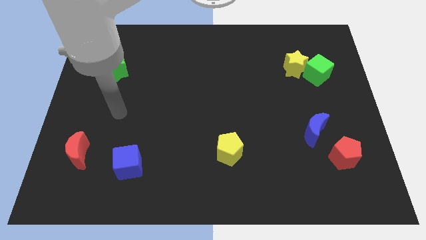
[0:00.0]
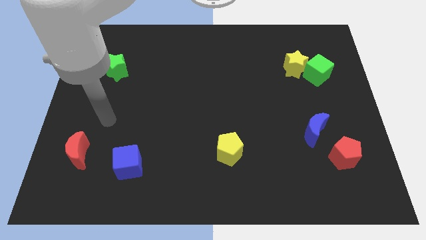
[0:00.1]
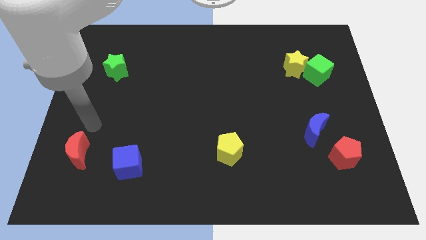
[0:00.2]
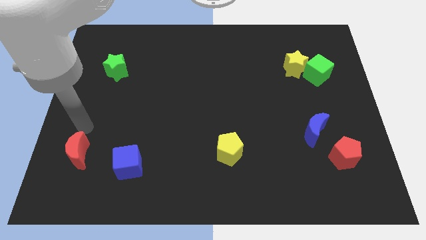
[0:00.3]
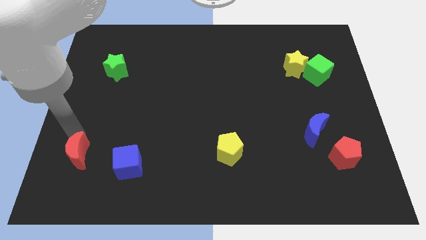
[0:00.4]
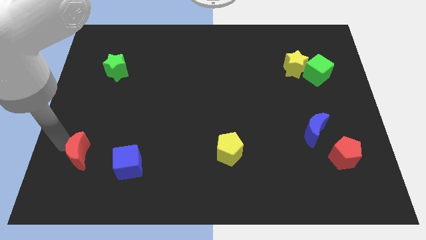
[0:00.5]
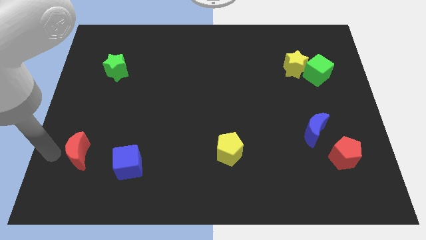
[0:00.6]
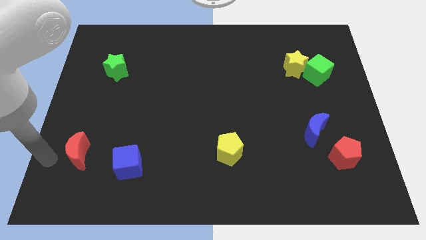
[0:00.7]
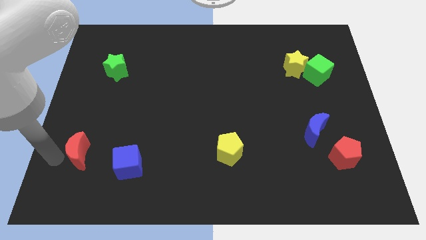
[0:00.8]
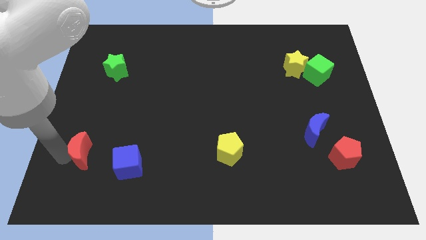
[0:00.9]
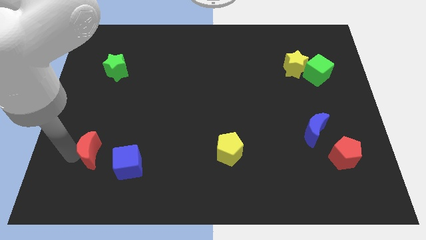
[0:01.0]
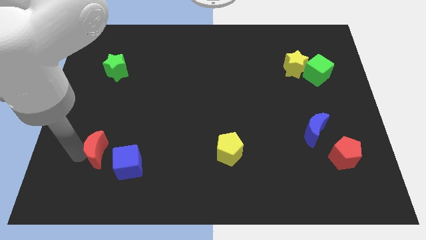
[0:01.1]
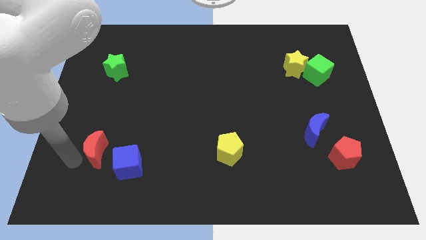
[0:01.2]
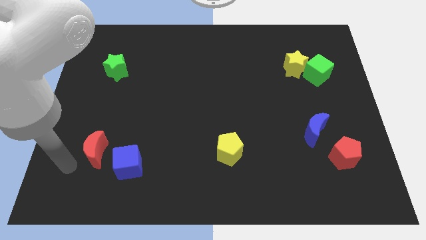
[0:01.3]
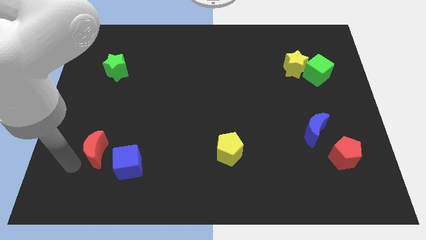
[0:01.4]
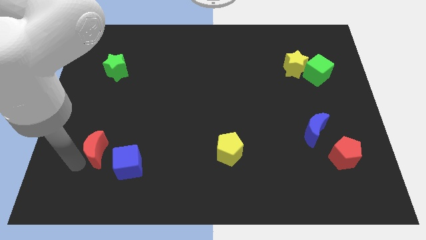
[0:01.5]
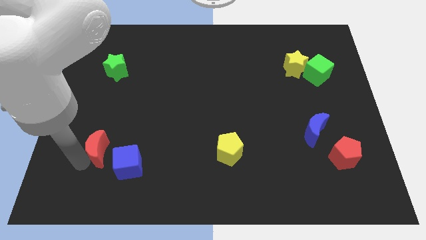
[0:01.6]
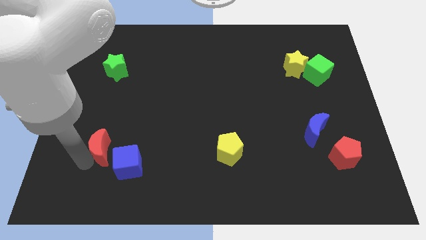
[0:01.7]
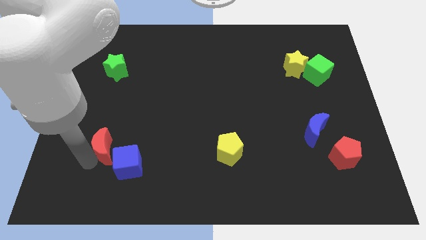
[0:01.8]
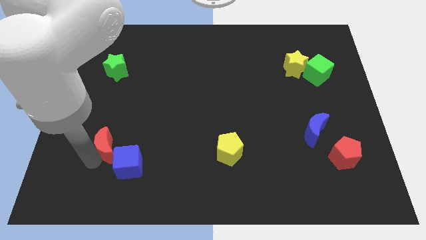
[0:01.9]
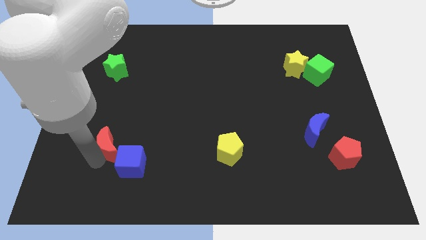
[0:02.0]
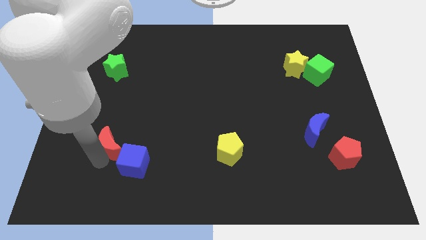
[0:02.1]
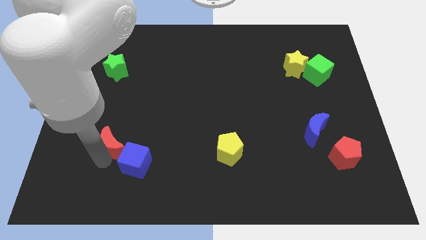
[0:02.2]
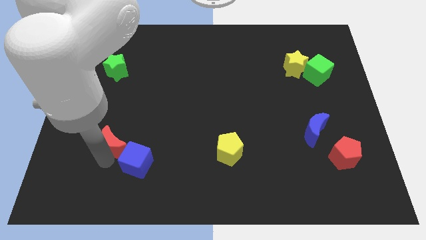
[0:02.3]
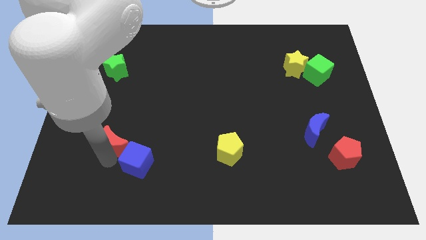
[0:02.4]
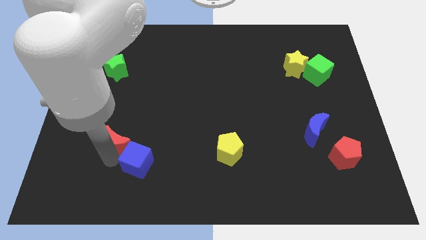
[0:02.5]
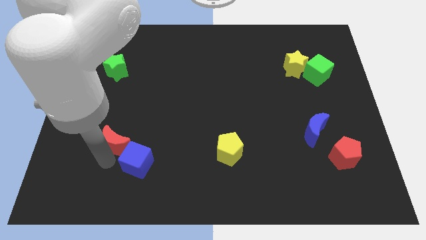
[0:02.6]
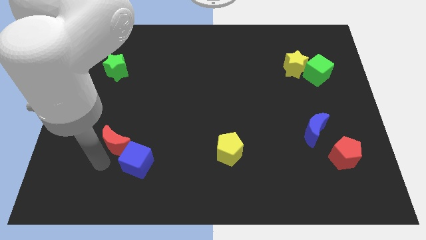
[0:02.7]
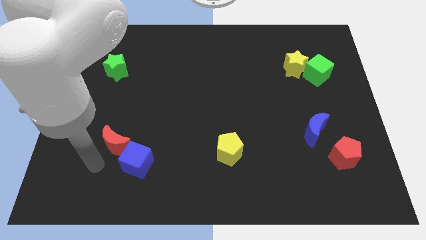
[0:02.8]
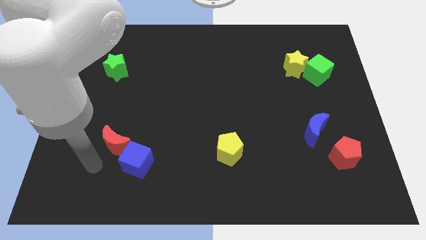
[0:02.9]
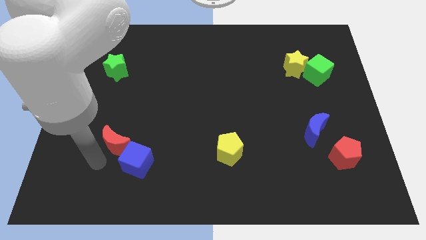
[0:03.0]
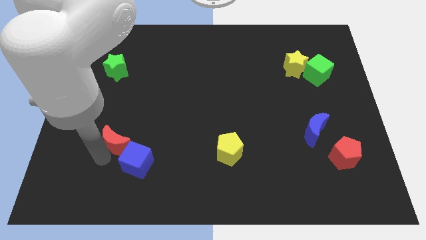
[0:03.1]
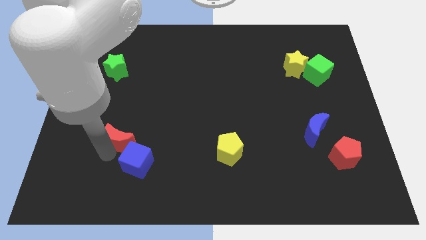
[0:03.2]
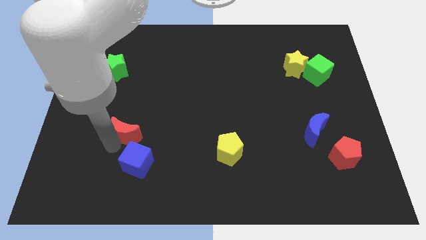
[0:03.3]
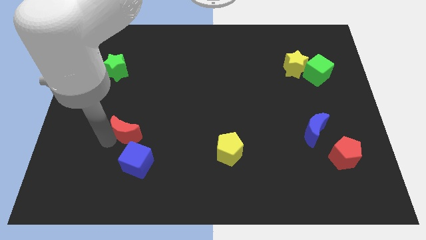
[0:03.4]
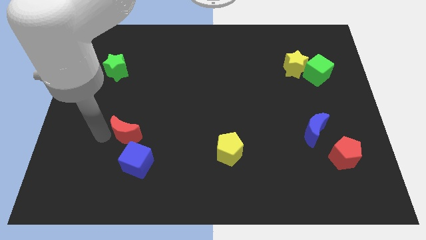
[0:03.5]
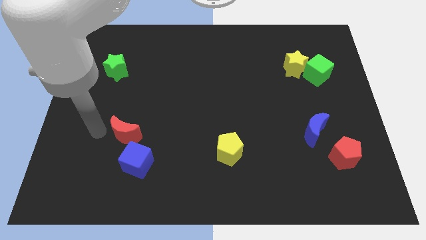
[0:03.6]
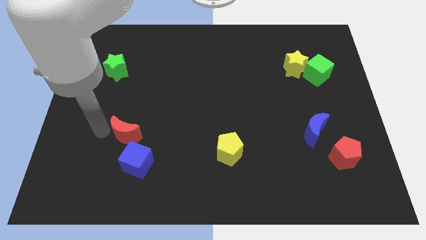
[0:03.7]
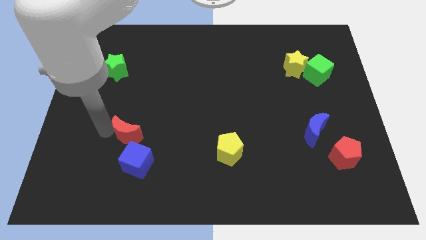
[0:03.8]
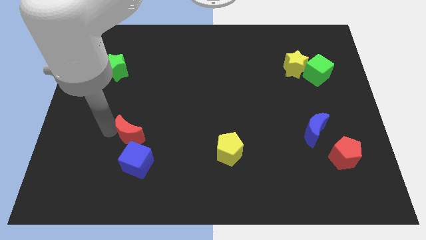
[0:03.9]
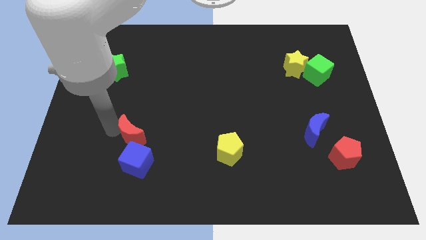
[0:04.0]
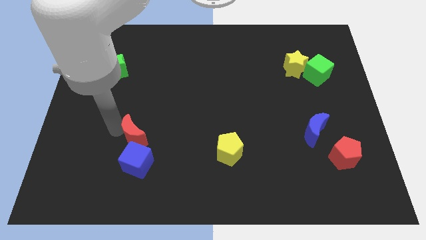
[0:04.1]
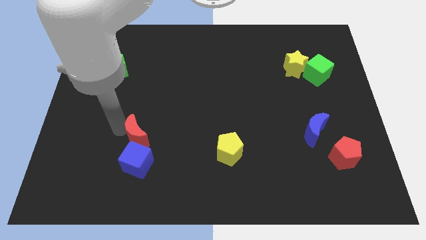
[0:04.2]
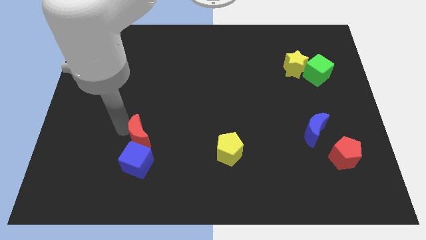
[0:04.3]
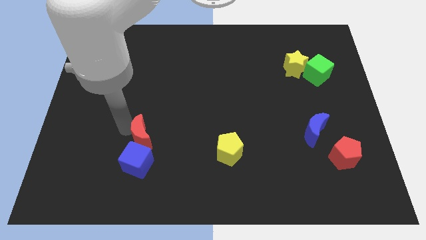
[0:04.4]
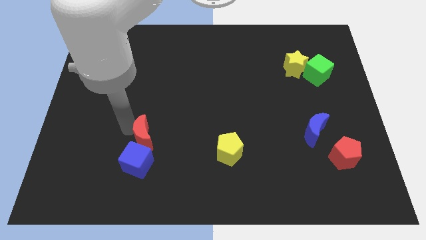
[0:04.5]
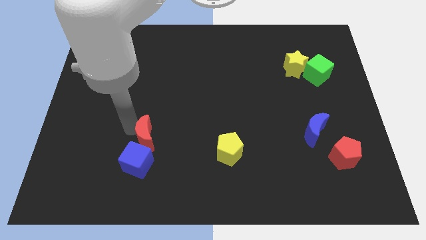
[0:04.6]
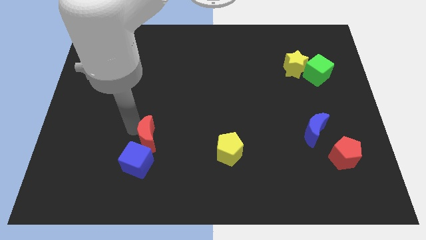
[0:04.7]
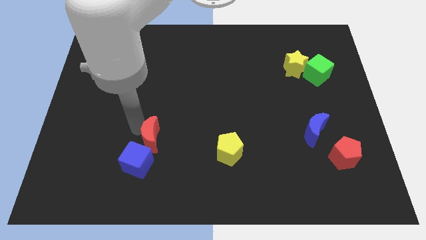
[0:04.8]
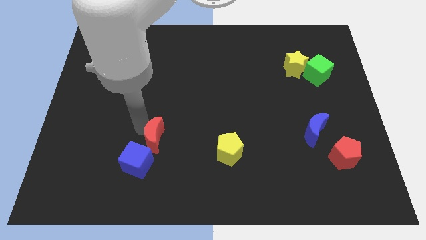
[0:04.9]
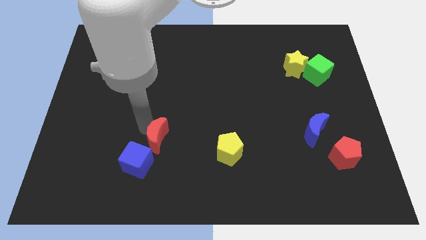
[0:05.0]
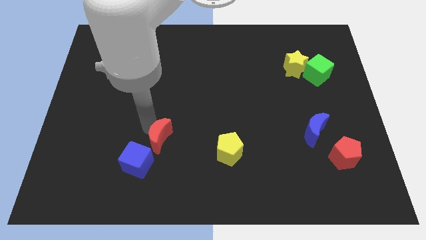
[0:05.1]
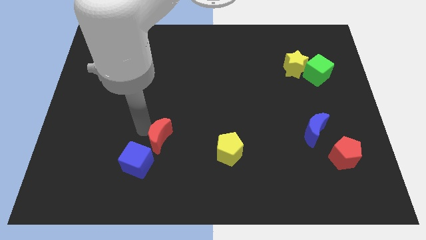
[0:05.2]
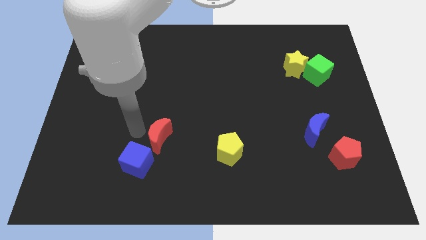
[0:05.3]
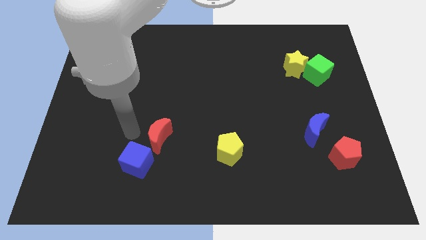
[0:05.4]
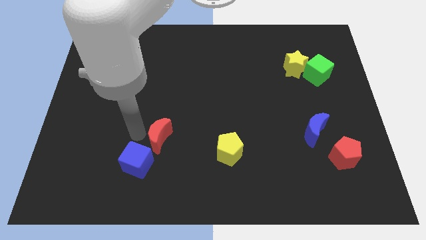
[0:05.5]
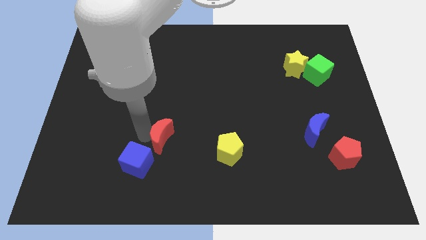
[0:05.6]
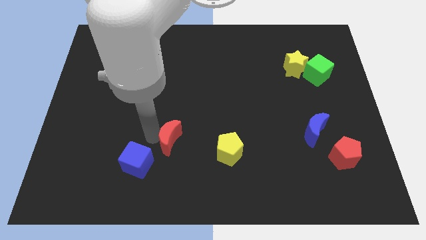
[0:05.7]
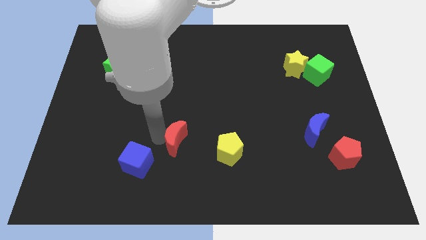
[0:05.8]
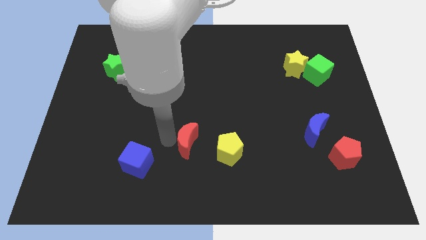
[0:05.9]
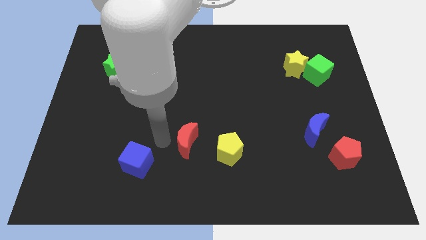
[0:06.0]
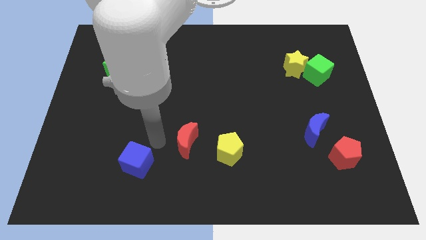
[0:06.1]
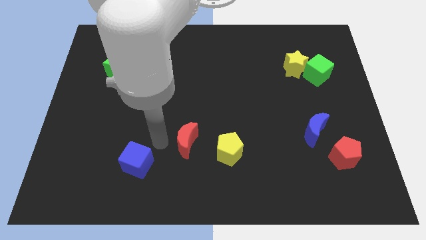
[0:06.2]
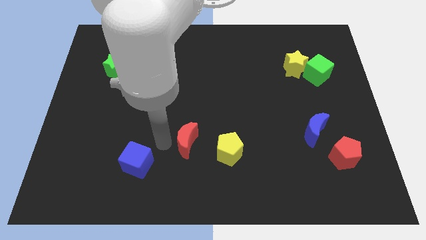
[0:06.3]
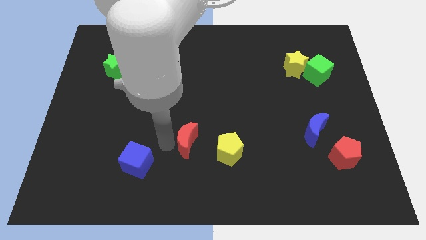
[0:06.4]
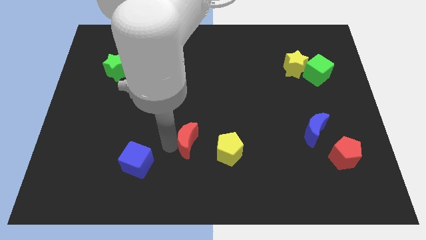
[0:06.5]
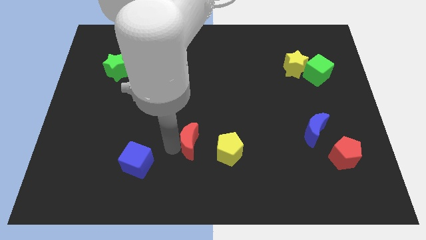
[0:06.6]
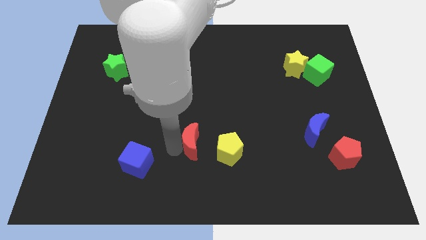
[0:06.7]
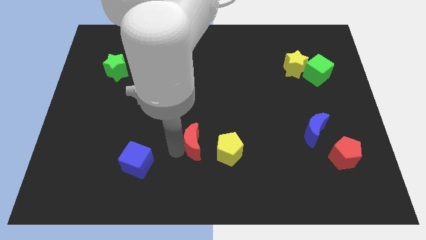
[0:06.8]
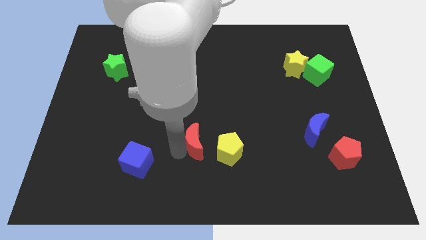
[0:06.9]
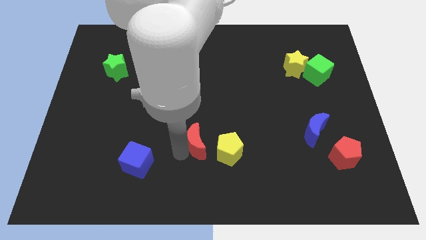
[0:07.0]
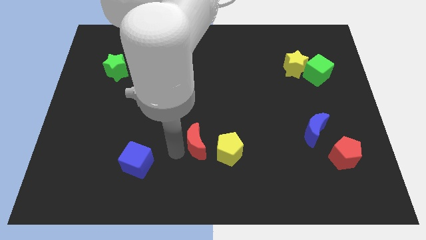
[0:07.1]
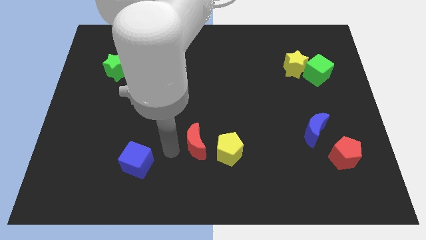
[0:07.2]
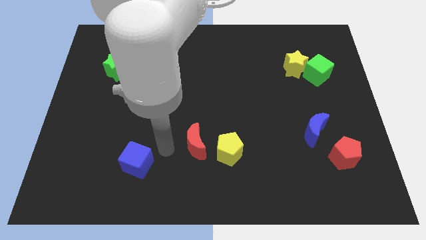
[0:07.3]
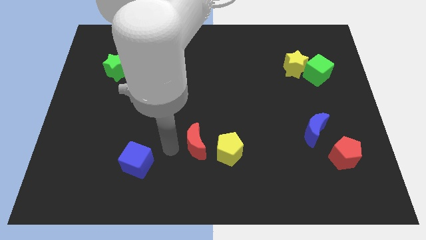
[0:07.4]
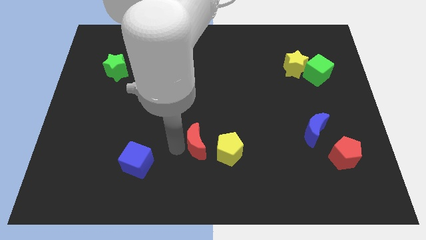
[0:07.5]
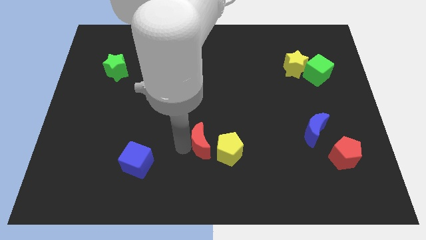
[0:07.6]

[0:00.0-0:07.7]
slide the red moon close to the yellow pentagon
